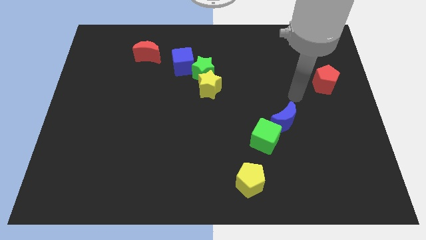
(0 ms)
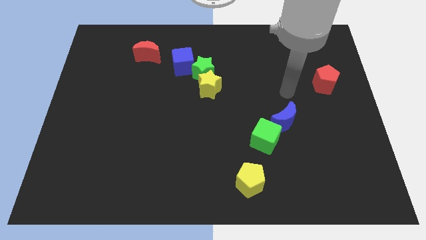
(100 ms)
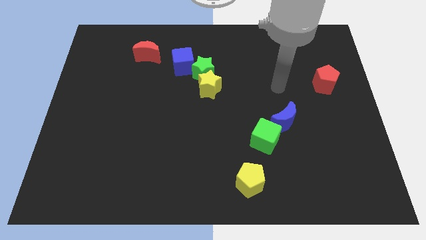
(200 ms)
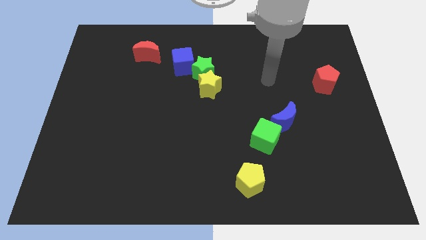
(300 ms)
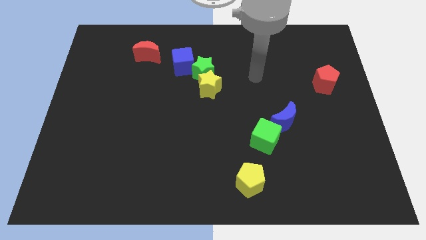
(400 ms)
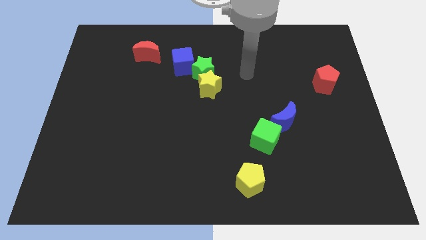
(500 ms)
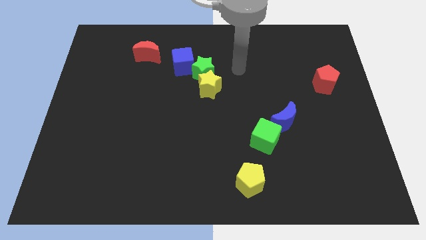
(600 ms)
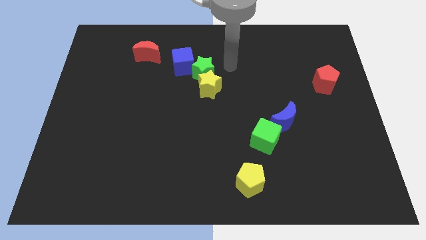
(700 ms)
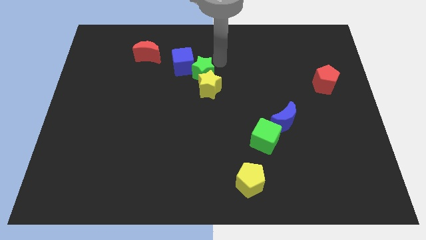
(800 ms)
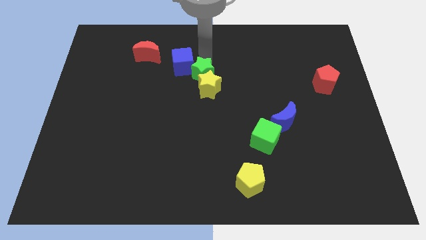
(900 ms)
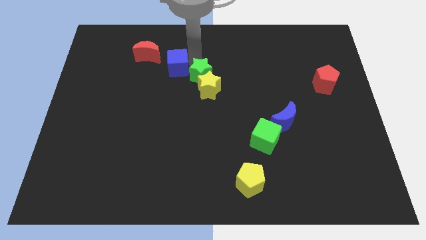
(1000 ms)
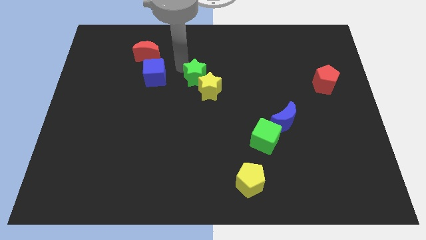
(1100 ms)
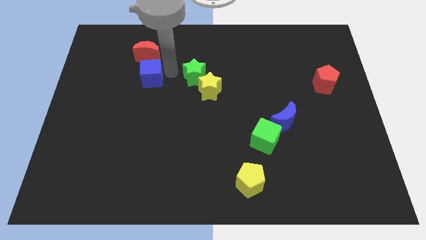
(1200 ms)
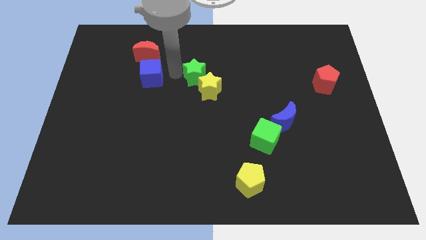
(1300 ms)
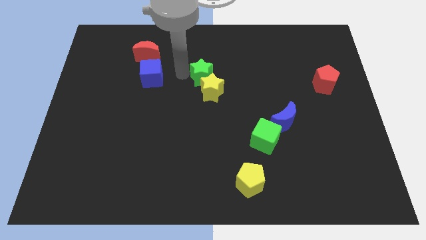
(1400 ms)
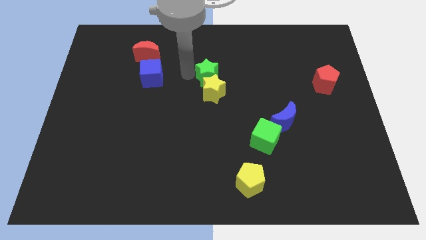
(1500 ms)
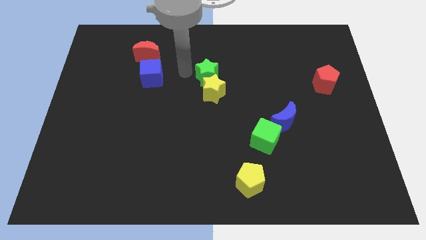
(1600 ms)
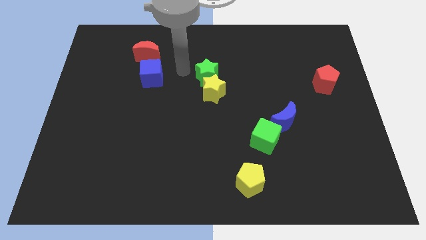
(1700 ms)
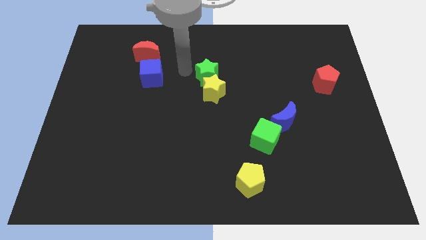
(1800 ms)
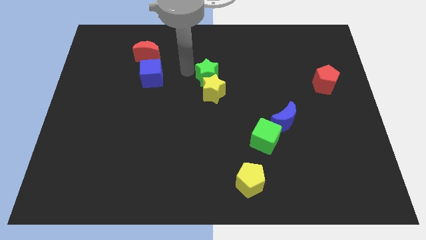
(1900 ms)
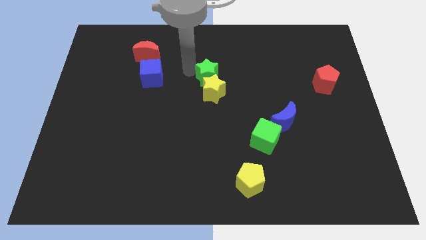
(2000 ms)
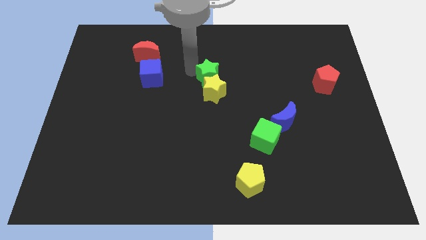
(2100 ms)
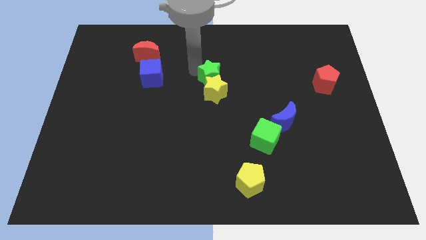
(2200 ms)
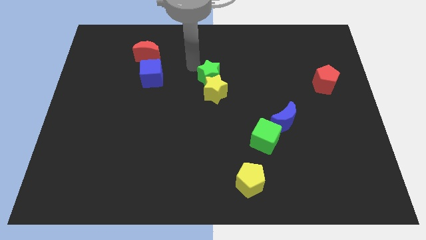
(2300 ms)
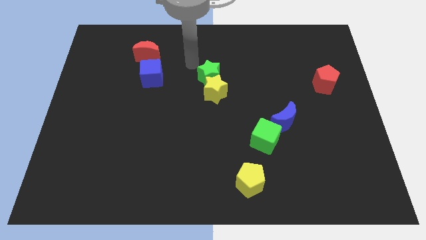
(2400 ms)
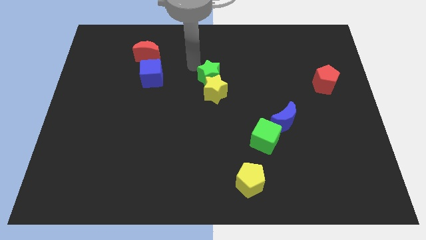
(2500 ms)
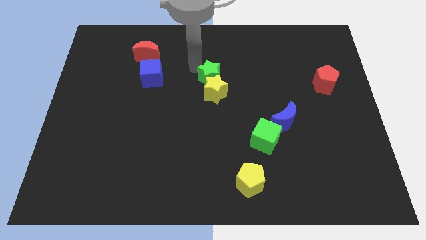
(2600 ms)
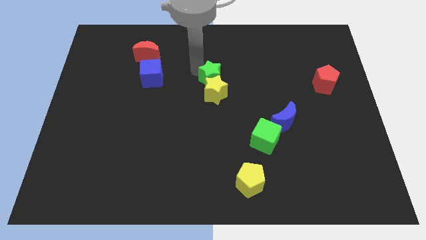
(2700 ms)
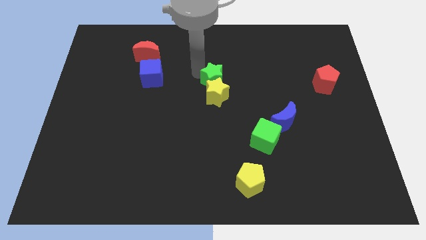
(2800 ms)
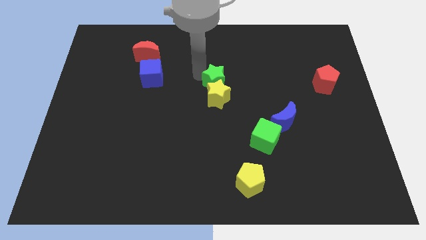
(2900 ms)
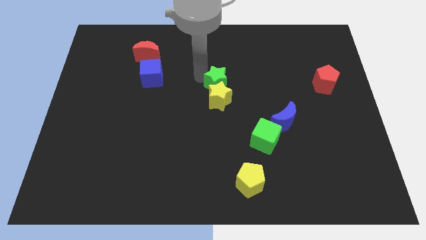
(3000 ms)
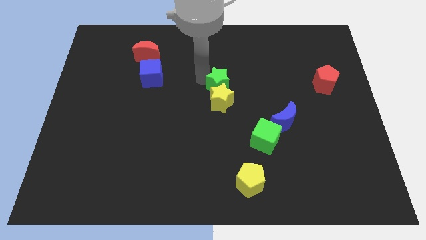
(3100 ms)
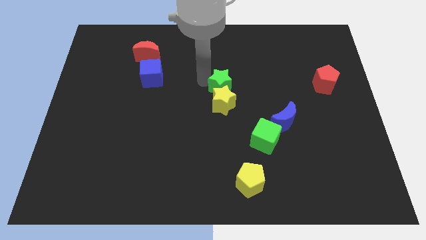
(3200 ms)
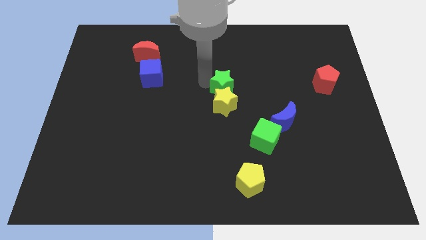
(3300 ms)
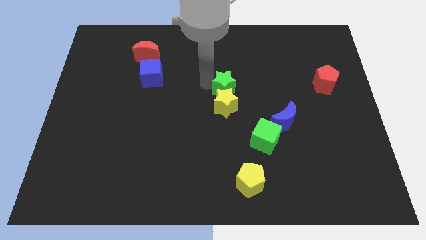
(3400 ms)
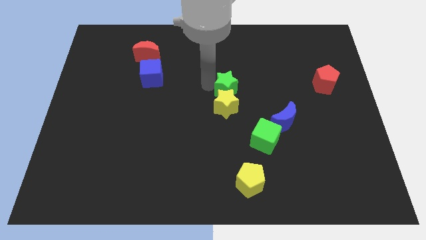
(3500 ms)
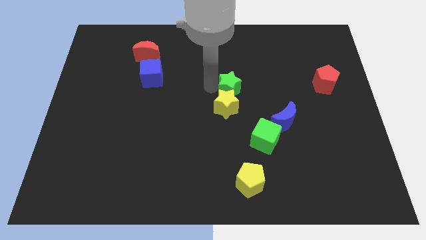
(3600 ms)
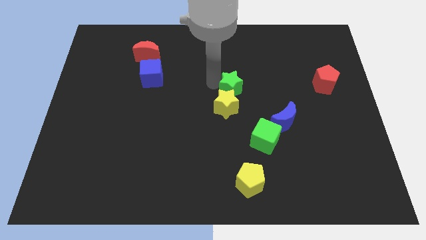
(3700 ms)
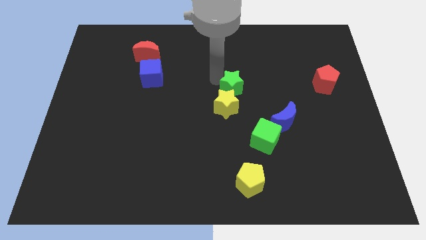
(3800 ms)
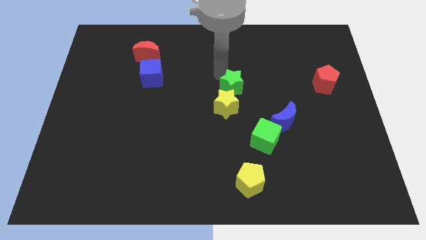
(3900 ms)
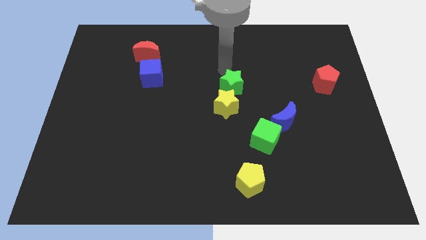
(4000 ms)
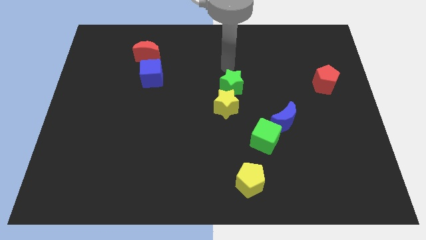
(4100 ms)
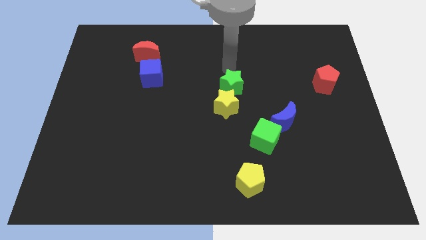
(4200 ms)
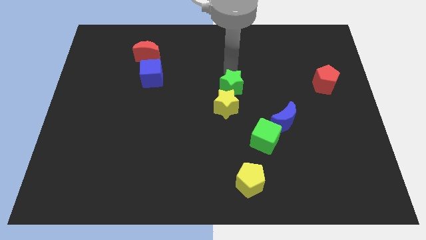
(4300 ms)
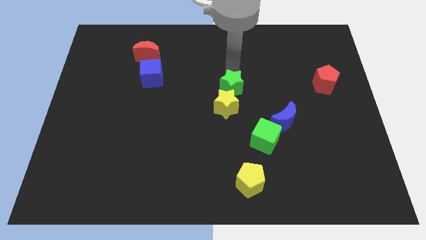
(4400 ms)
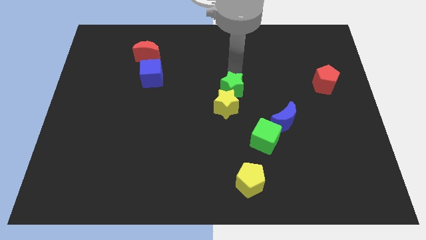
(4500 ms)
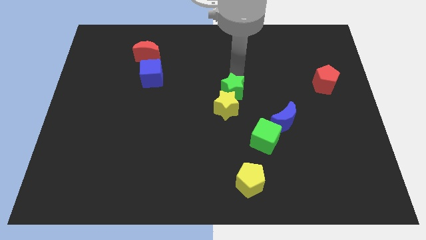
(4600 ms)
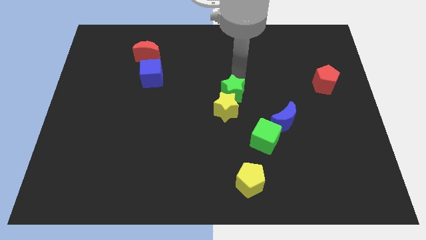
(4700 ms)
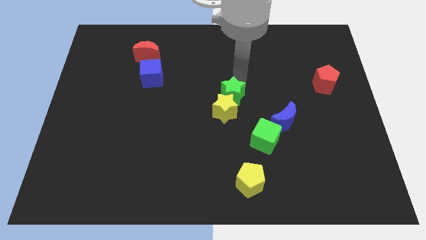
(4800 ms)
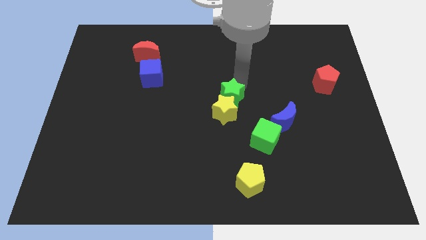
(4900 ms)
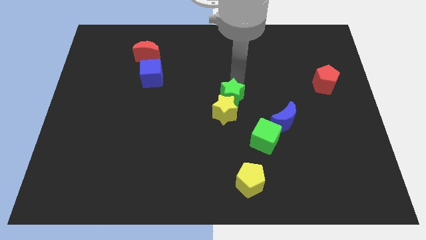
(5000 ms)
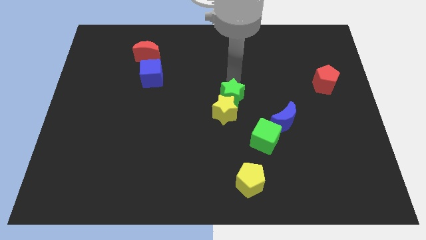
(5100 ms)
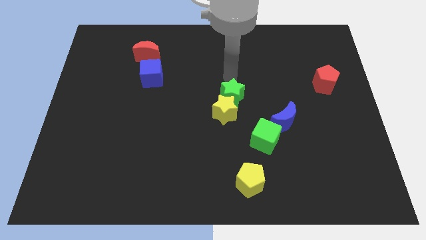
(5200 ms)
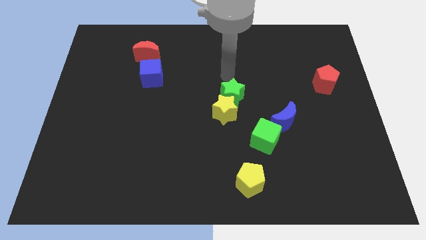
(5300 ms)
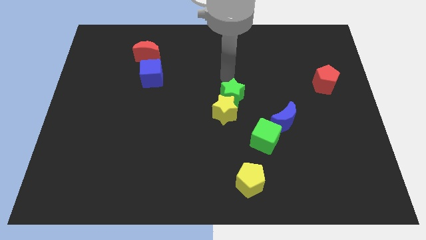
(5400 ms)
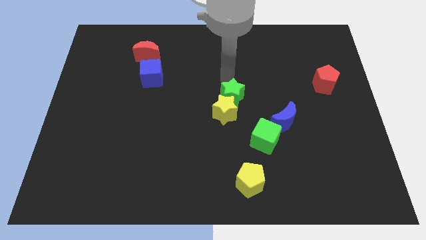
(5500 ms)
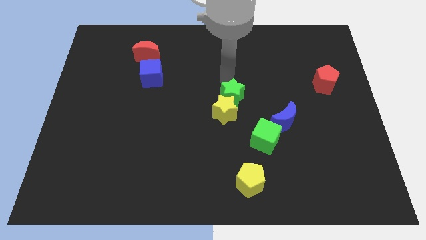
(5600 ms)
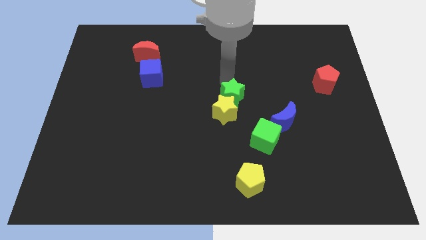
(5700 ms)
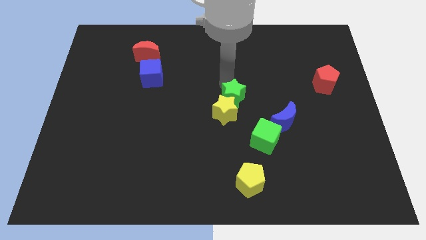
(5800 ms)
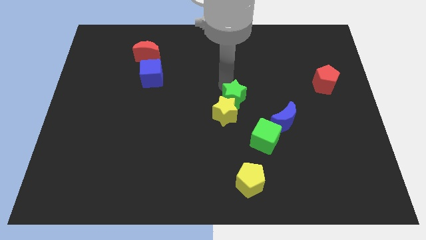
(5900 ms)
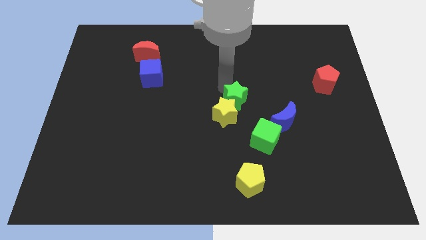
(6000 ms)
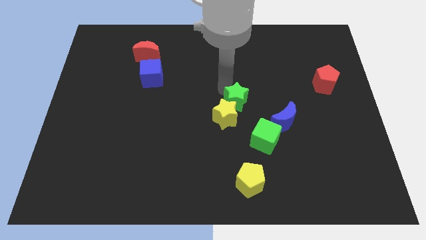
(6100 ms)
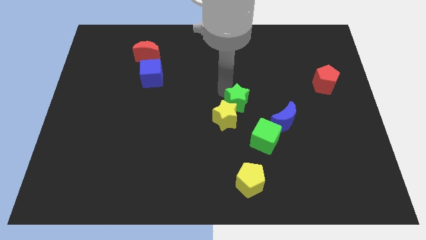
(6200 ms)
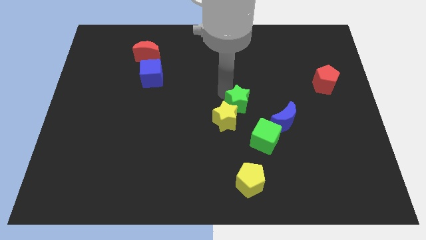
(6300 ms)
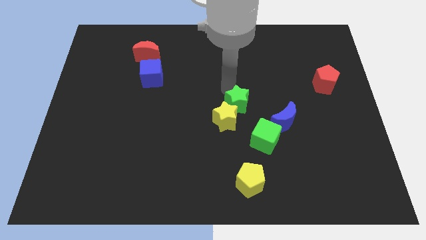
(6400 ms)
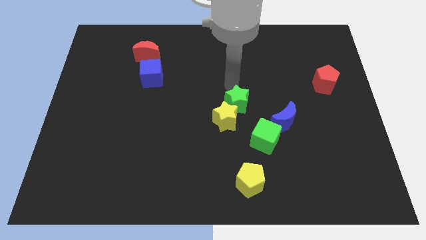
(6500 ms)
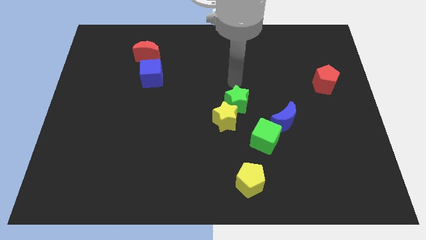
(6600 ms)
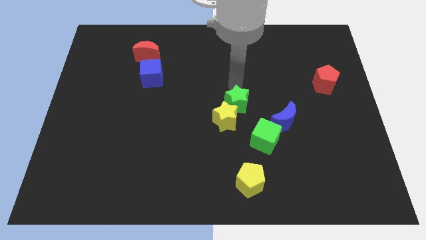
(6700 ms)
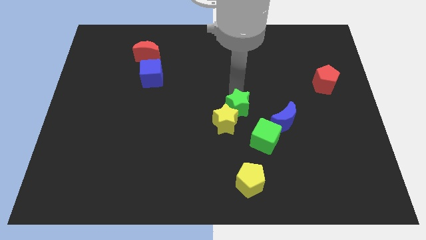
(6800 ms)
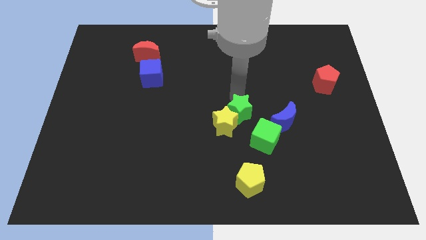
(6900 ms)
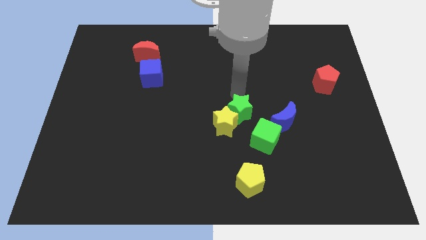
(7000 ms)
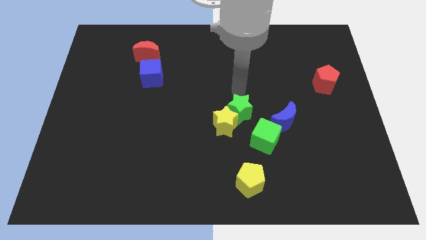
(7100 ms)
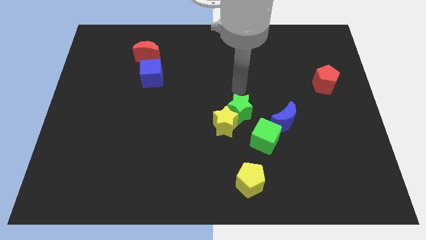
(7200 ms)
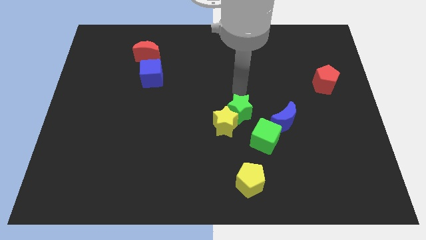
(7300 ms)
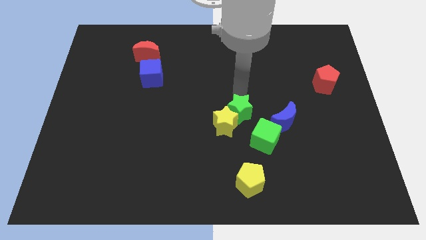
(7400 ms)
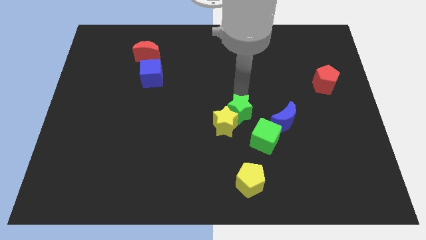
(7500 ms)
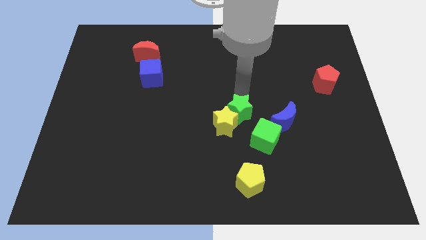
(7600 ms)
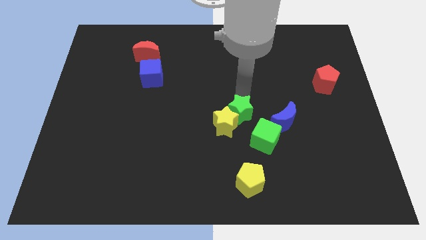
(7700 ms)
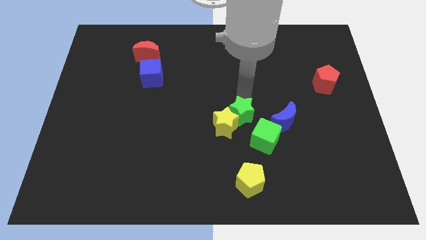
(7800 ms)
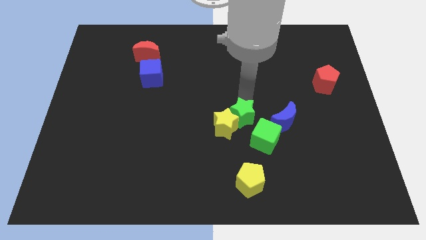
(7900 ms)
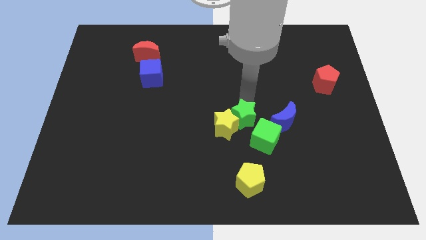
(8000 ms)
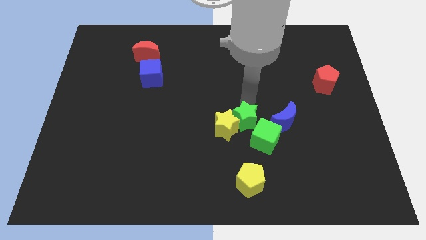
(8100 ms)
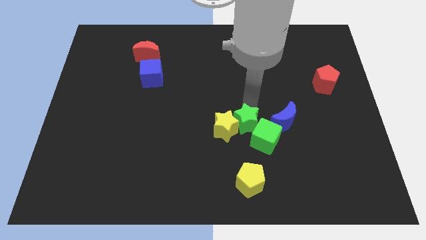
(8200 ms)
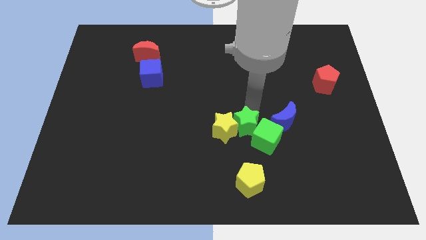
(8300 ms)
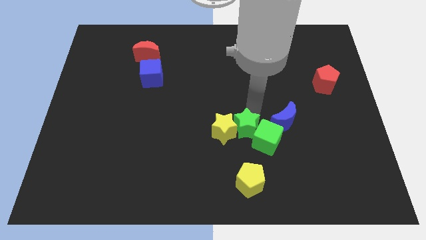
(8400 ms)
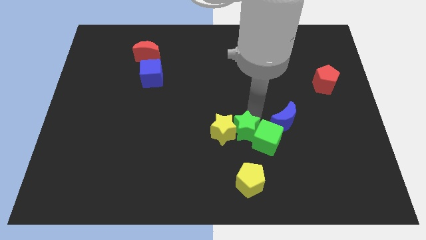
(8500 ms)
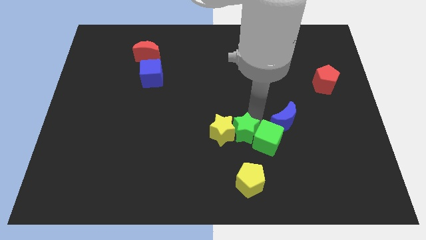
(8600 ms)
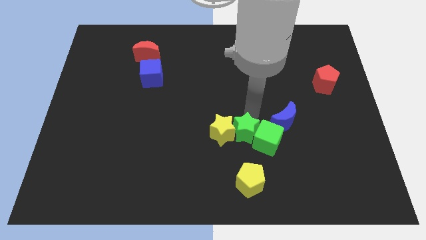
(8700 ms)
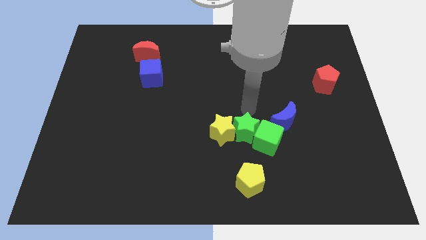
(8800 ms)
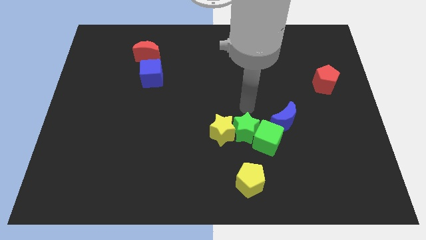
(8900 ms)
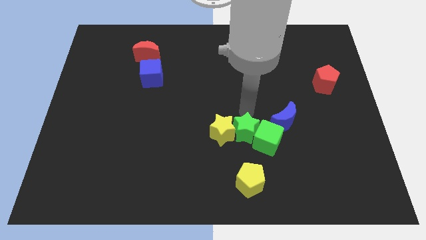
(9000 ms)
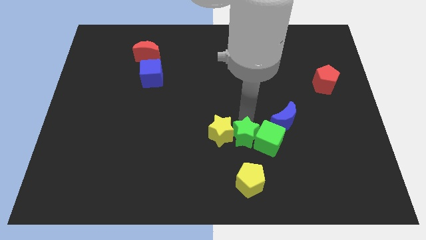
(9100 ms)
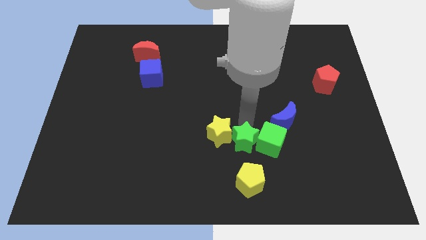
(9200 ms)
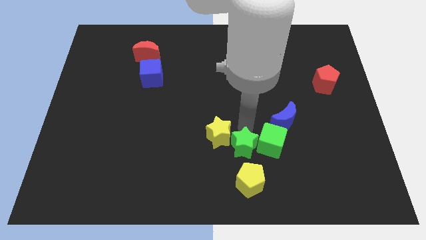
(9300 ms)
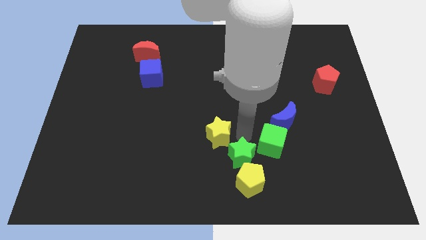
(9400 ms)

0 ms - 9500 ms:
put the green star to the yellow pentagon
